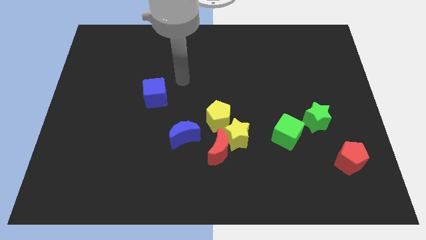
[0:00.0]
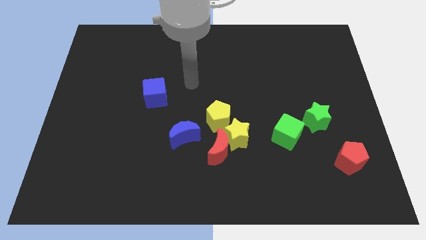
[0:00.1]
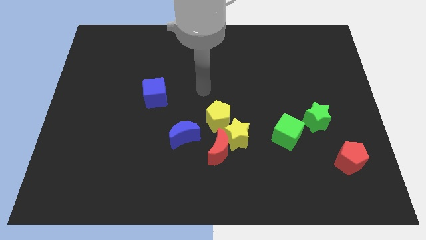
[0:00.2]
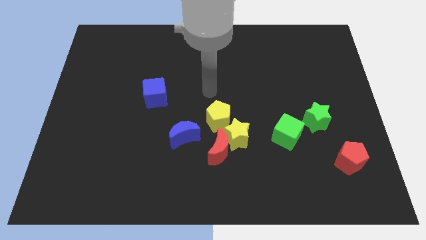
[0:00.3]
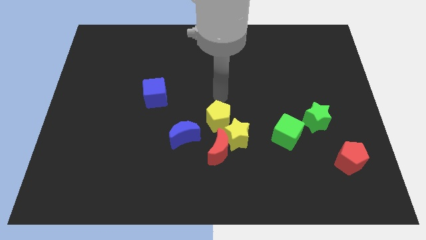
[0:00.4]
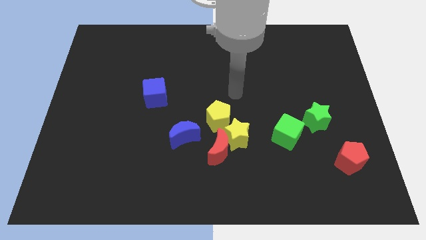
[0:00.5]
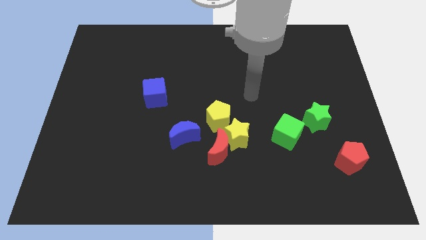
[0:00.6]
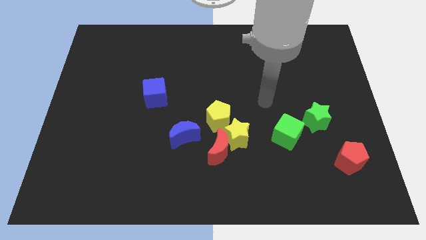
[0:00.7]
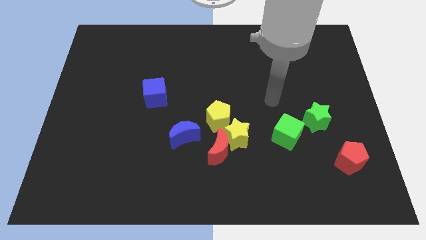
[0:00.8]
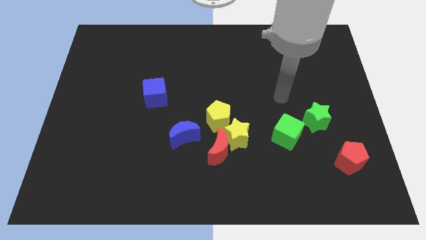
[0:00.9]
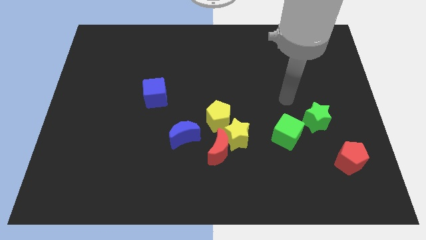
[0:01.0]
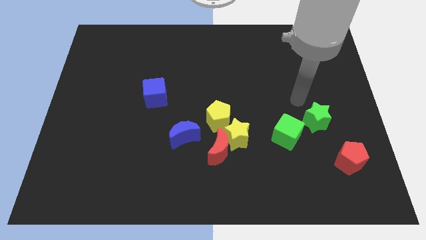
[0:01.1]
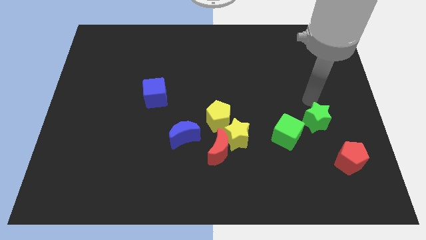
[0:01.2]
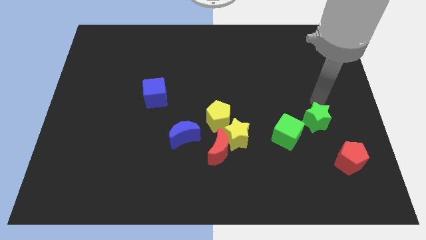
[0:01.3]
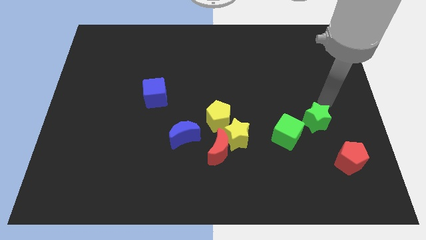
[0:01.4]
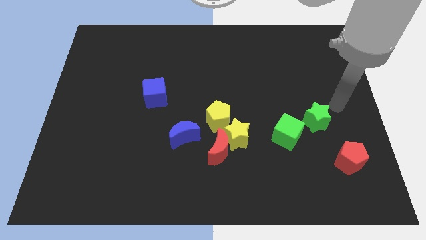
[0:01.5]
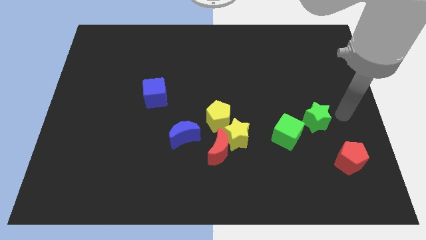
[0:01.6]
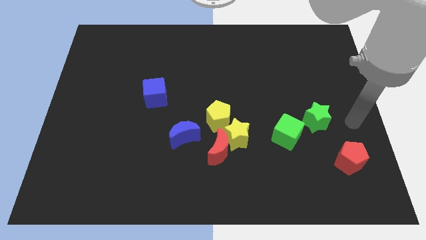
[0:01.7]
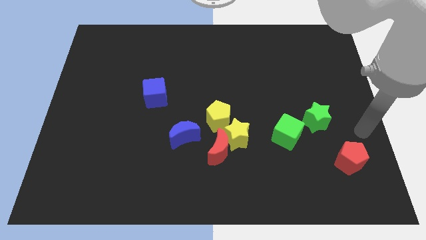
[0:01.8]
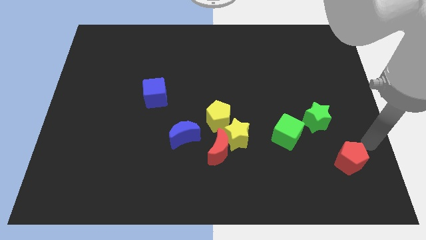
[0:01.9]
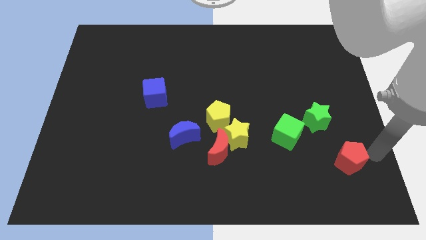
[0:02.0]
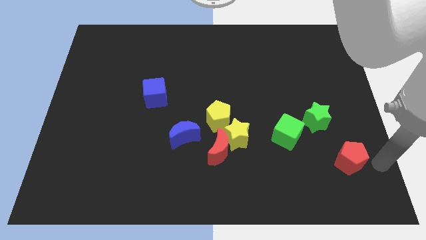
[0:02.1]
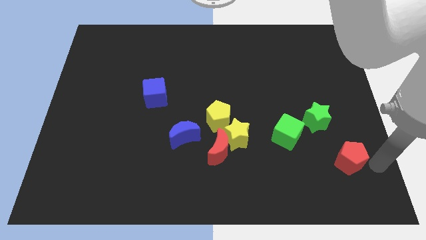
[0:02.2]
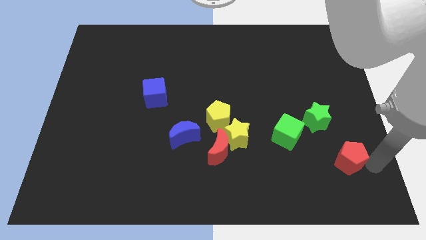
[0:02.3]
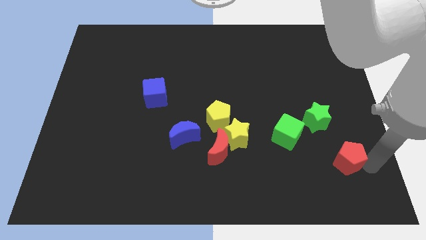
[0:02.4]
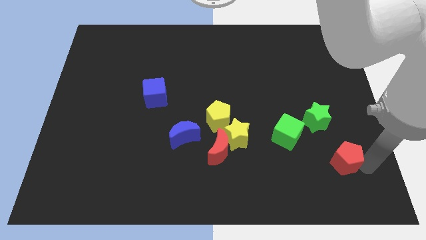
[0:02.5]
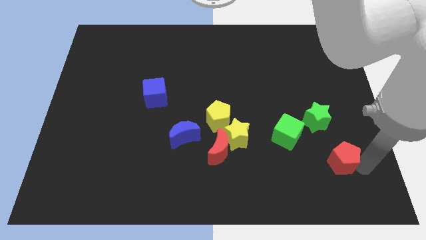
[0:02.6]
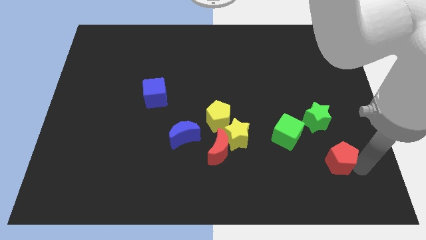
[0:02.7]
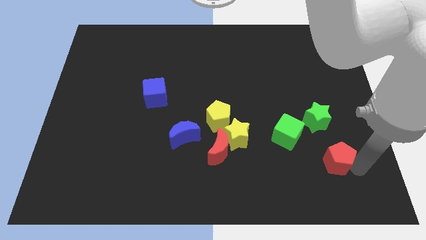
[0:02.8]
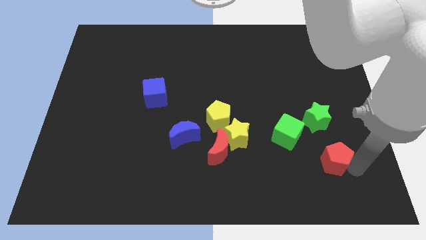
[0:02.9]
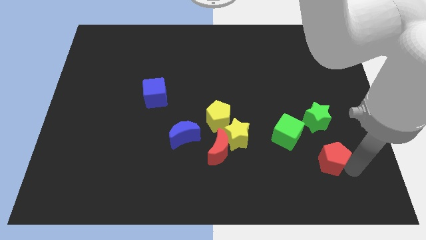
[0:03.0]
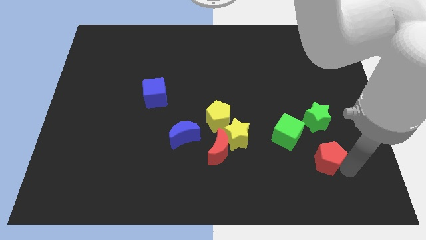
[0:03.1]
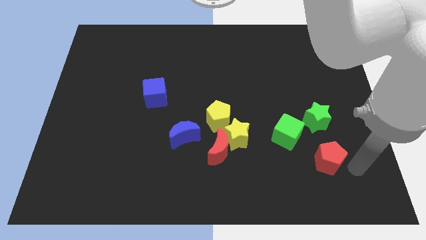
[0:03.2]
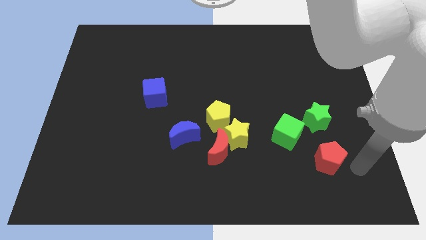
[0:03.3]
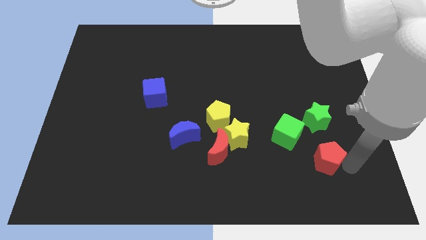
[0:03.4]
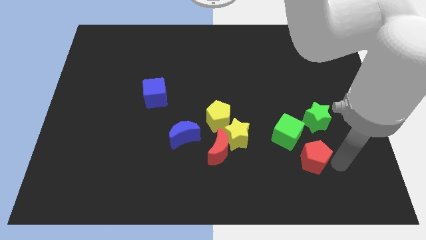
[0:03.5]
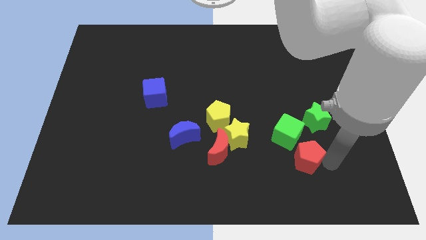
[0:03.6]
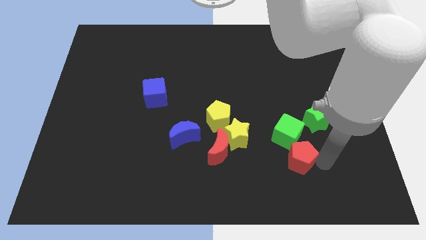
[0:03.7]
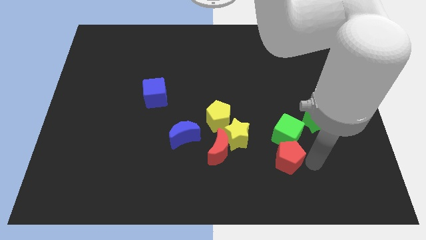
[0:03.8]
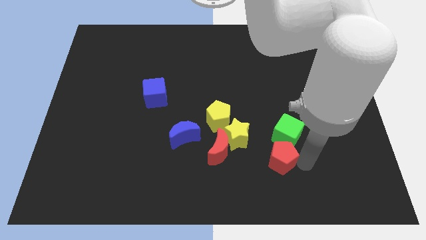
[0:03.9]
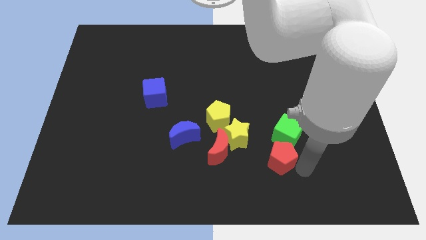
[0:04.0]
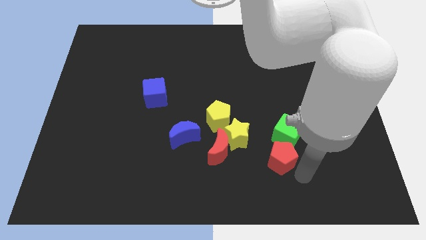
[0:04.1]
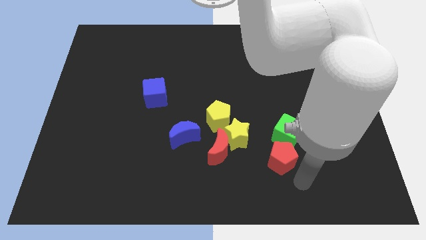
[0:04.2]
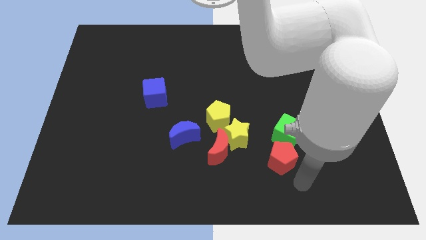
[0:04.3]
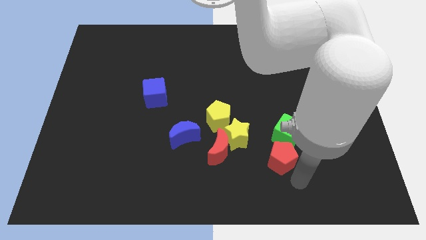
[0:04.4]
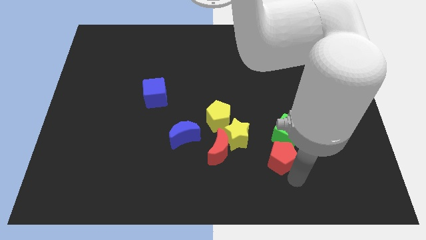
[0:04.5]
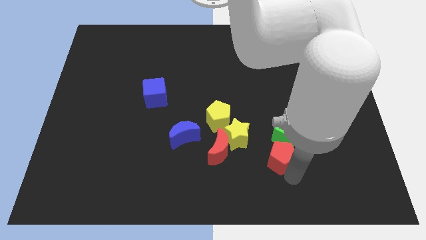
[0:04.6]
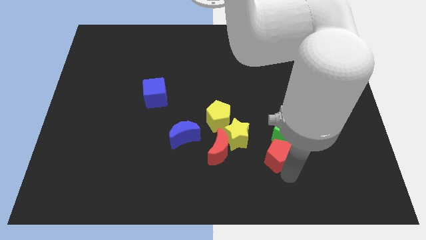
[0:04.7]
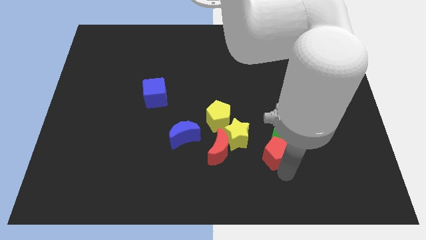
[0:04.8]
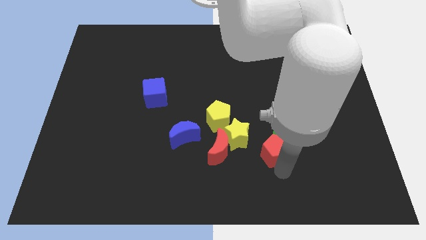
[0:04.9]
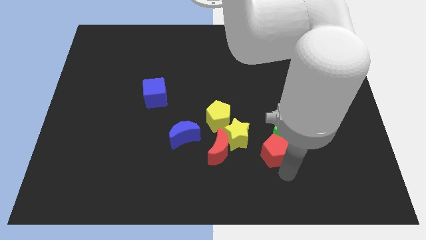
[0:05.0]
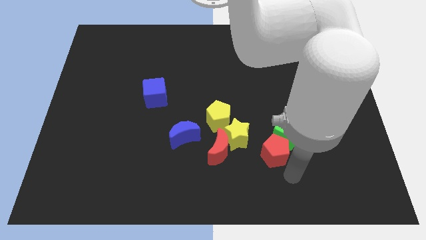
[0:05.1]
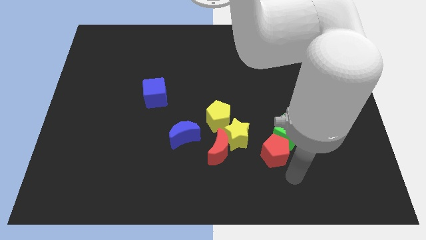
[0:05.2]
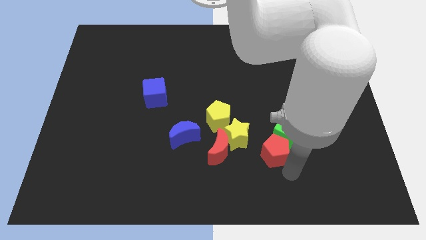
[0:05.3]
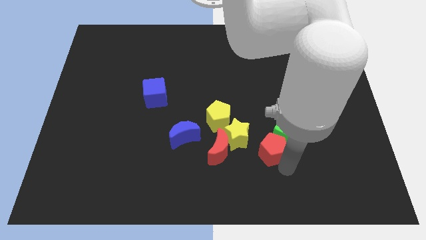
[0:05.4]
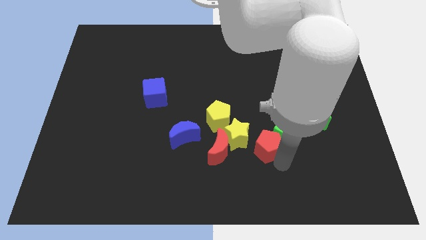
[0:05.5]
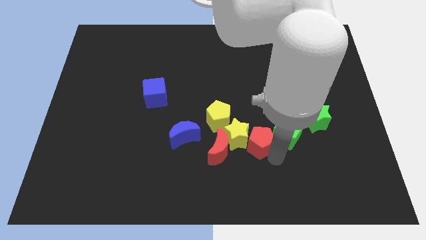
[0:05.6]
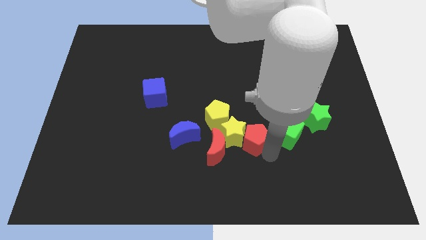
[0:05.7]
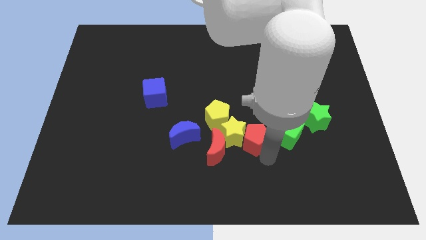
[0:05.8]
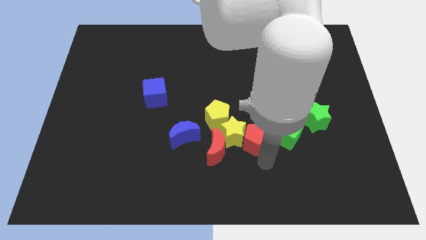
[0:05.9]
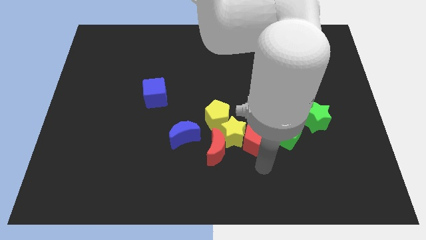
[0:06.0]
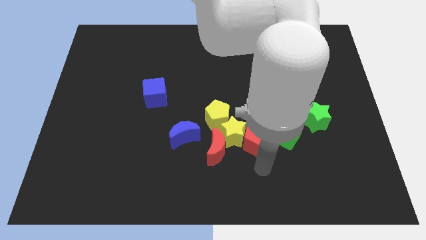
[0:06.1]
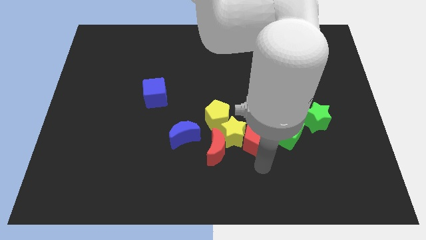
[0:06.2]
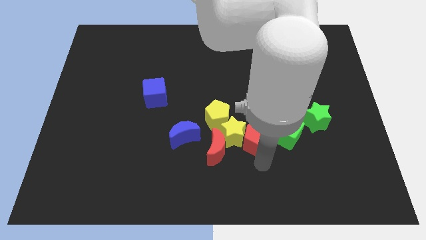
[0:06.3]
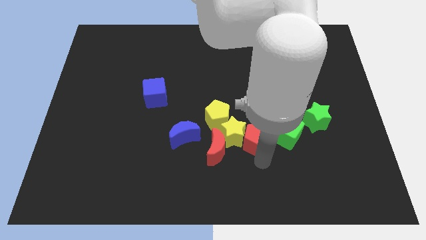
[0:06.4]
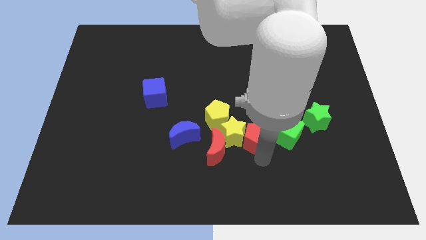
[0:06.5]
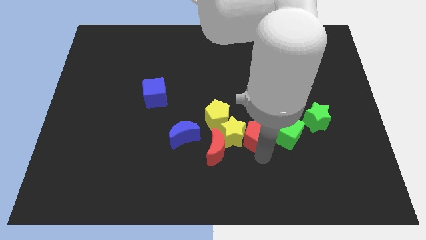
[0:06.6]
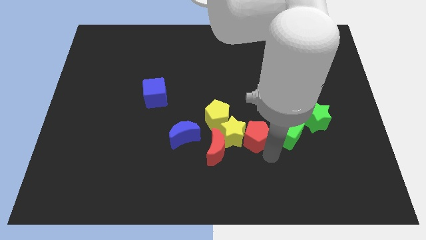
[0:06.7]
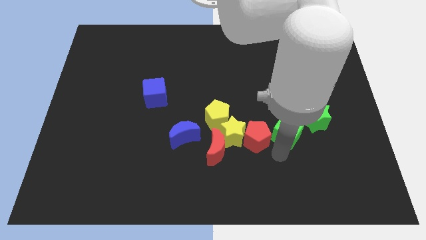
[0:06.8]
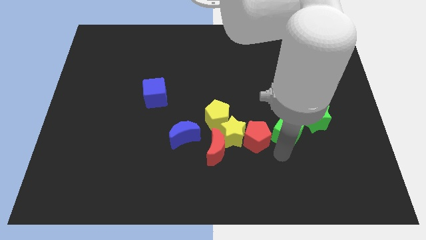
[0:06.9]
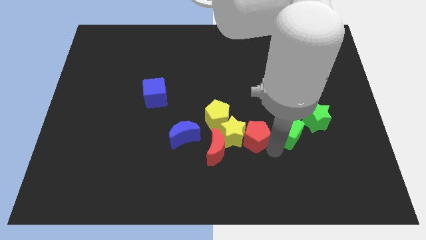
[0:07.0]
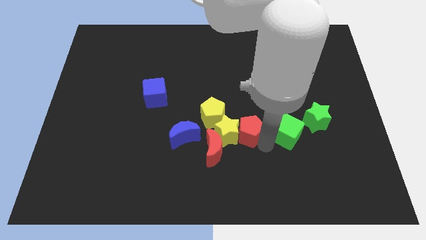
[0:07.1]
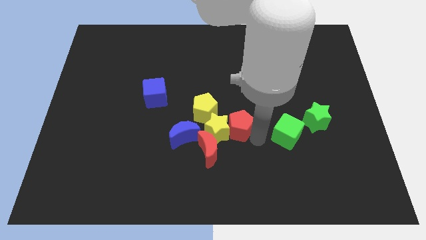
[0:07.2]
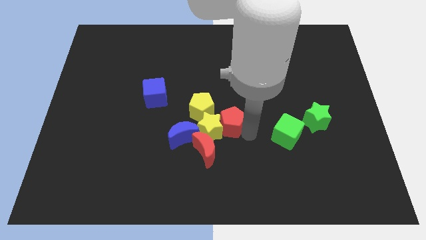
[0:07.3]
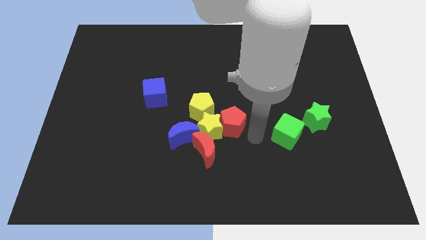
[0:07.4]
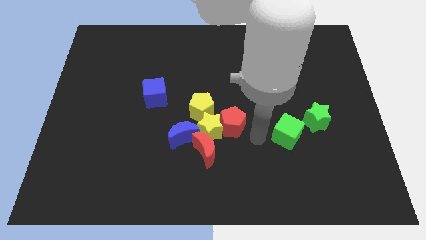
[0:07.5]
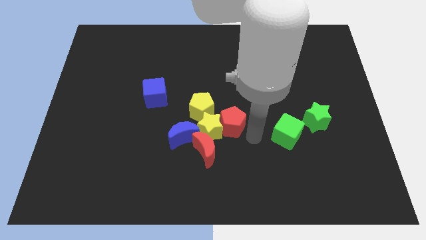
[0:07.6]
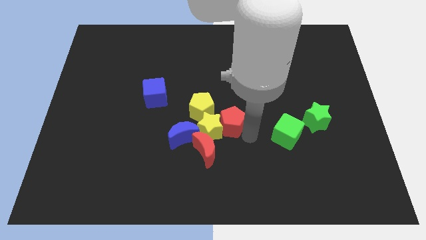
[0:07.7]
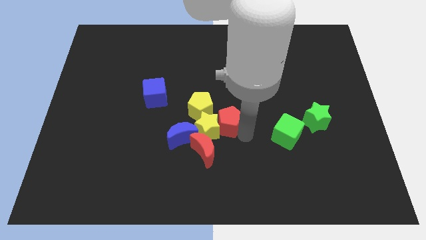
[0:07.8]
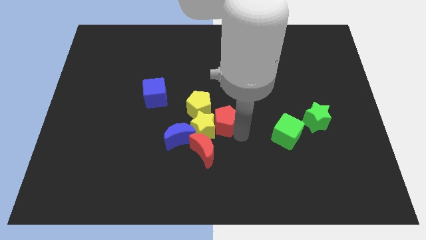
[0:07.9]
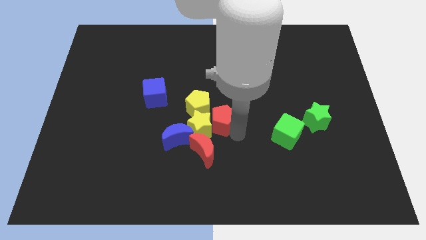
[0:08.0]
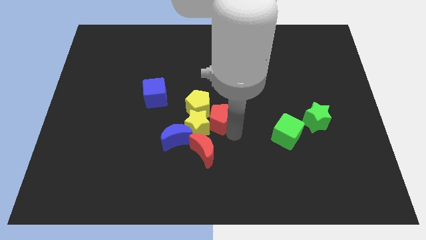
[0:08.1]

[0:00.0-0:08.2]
move the red pentagon to the yellow pentagon
